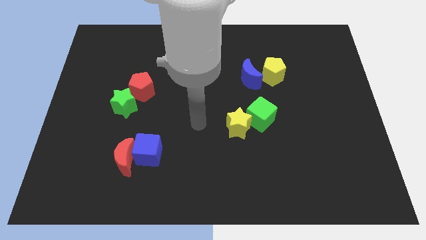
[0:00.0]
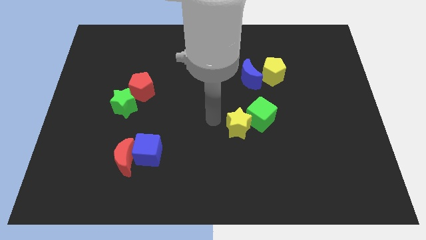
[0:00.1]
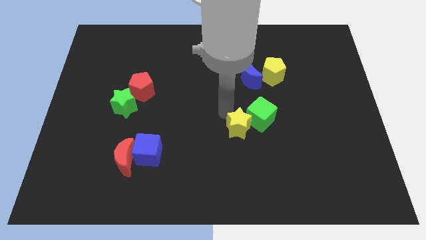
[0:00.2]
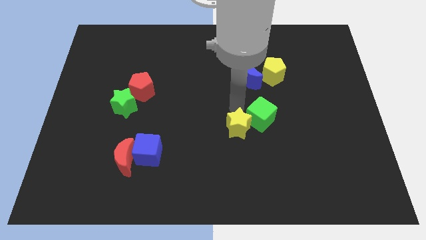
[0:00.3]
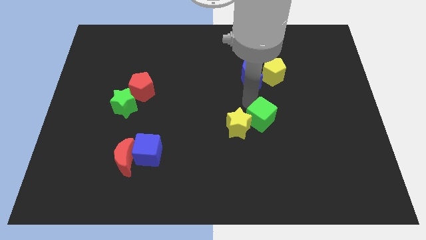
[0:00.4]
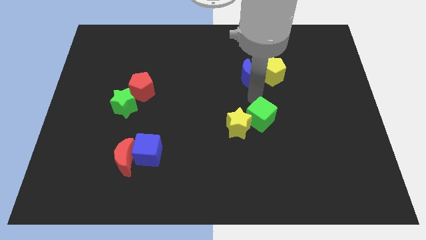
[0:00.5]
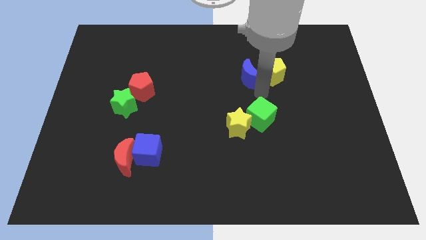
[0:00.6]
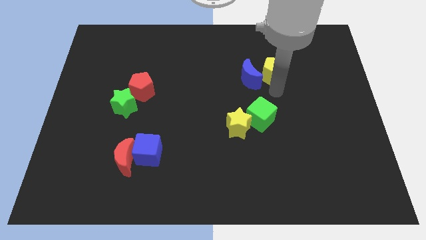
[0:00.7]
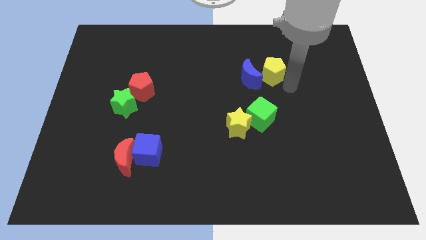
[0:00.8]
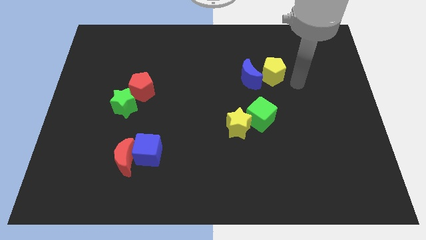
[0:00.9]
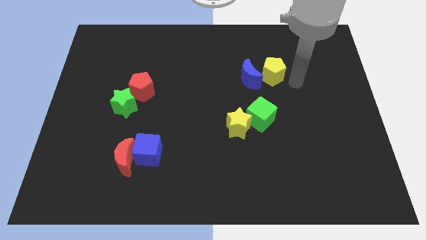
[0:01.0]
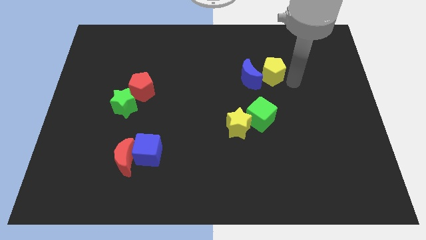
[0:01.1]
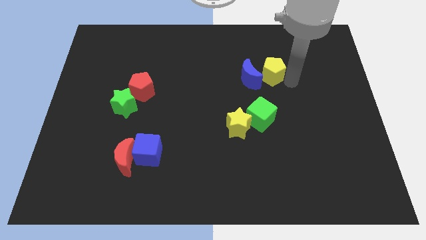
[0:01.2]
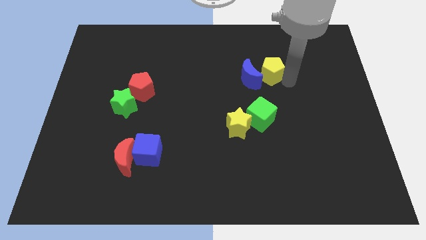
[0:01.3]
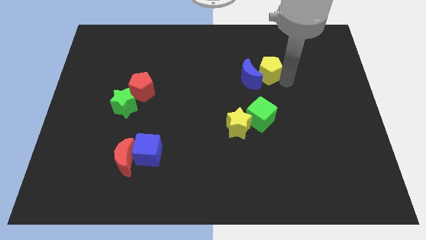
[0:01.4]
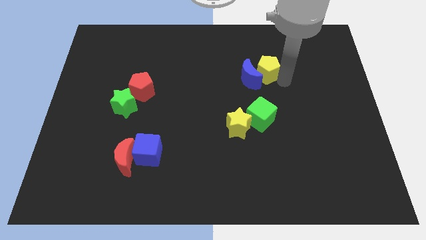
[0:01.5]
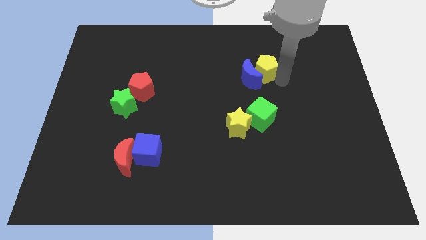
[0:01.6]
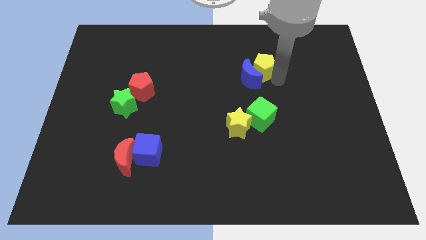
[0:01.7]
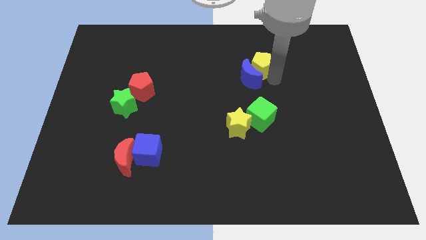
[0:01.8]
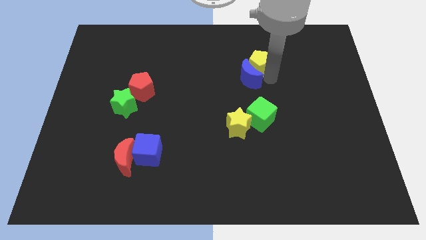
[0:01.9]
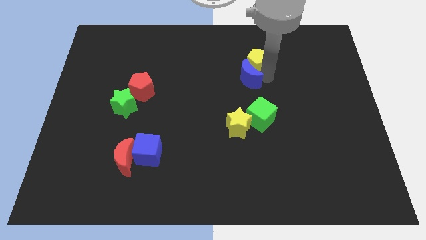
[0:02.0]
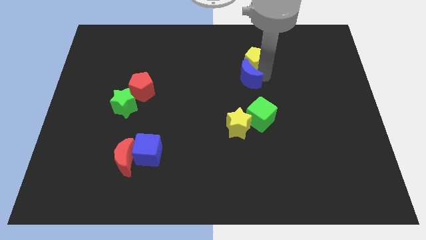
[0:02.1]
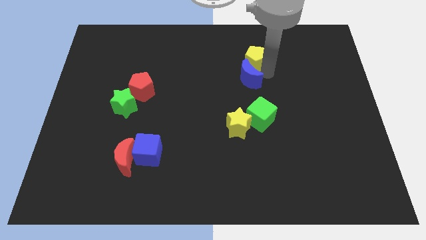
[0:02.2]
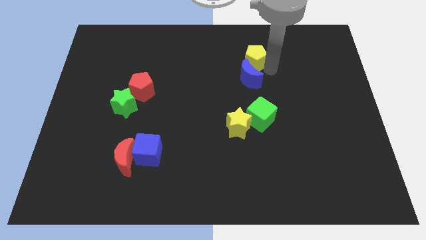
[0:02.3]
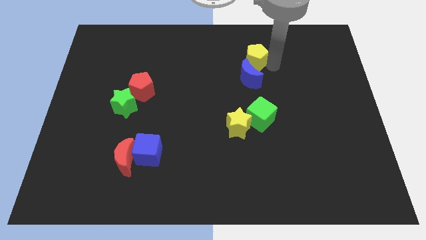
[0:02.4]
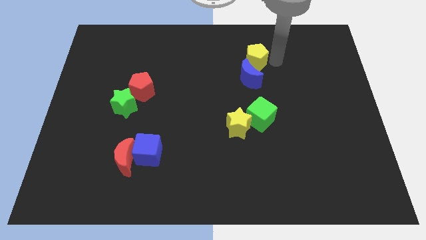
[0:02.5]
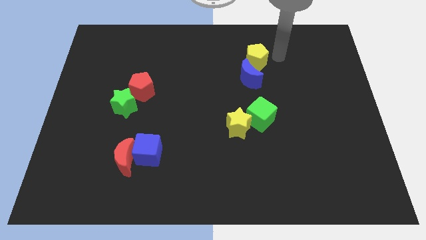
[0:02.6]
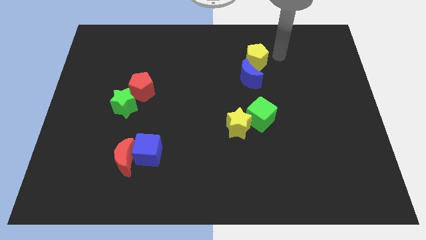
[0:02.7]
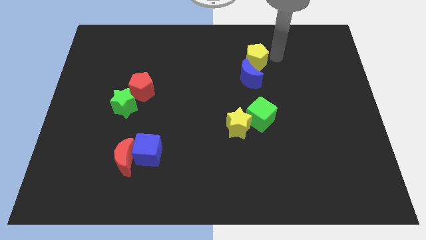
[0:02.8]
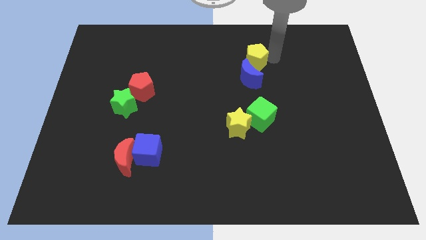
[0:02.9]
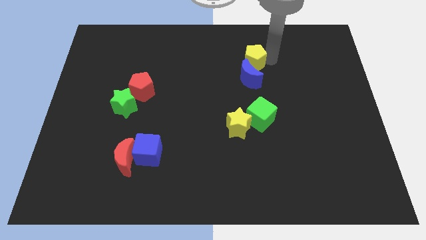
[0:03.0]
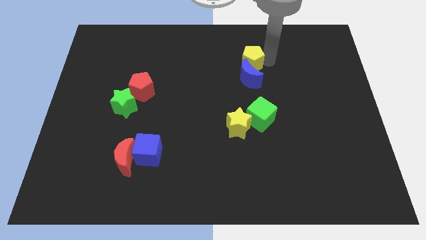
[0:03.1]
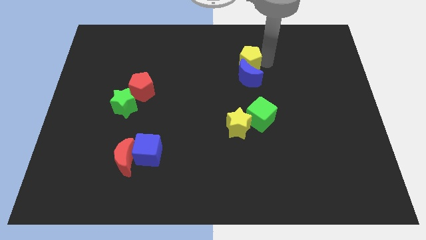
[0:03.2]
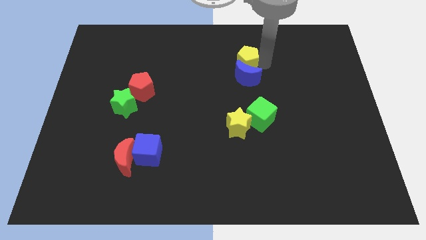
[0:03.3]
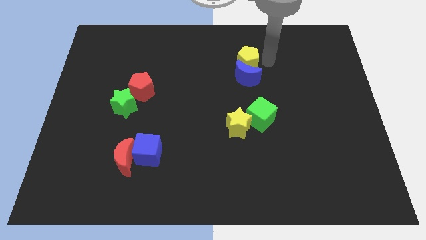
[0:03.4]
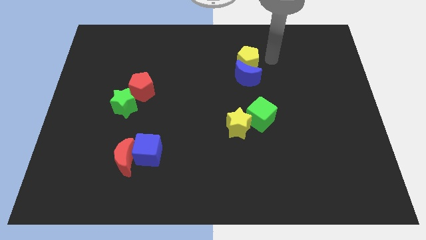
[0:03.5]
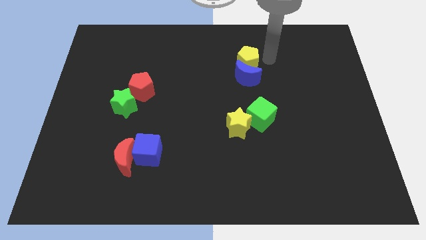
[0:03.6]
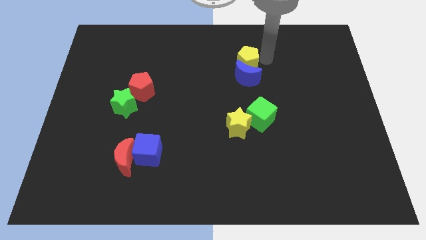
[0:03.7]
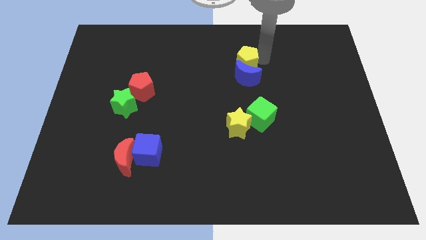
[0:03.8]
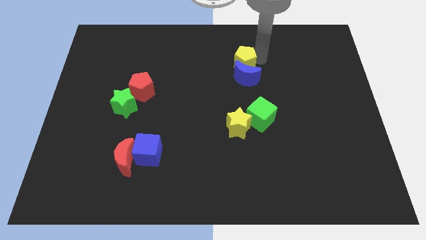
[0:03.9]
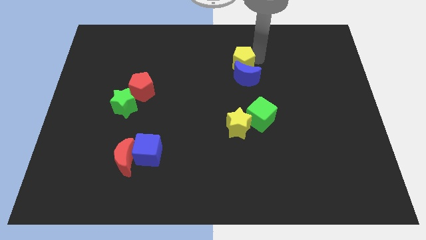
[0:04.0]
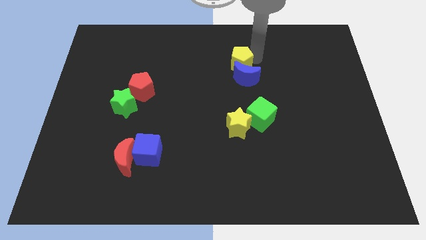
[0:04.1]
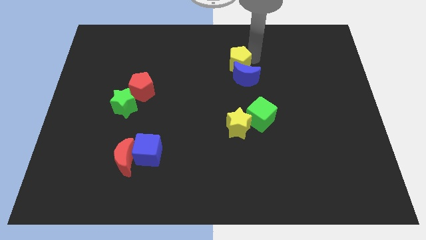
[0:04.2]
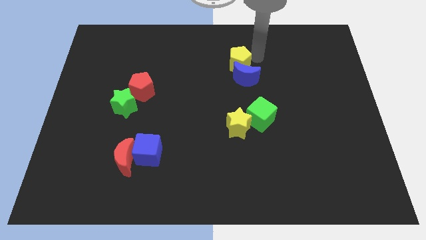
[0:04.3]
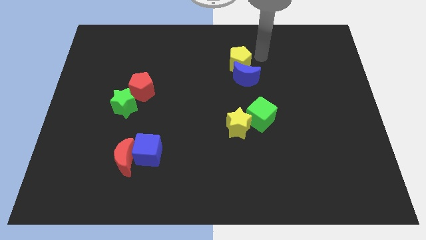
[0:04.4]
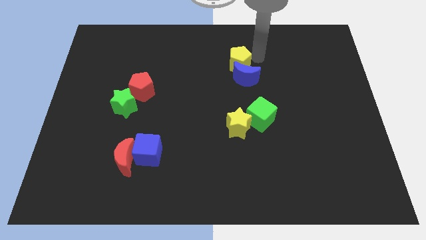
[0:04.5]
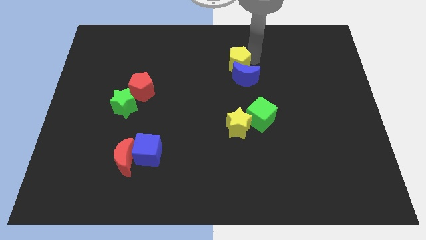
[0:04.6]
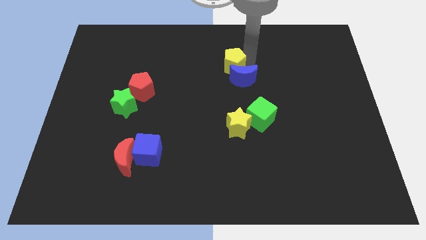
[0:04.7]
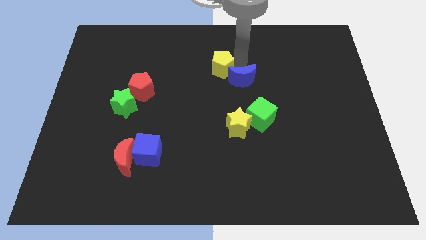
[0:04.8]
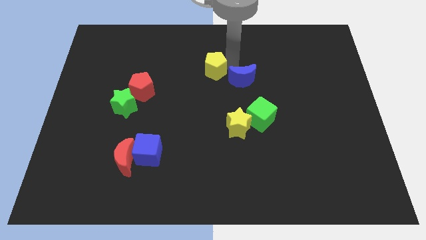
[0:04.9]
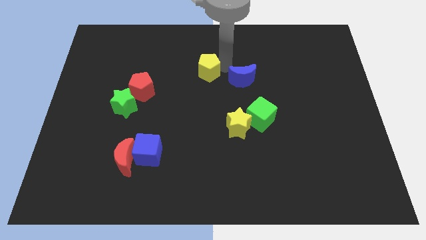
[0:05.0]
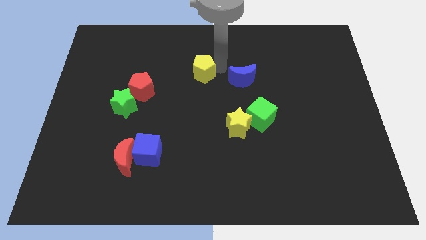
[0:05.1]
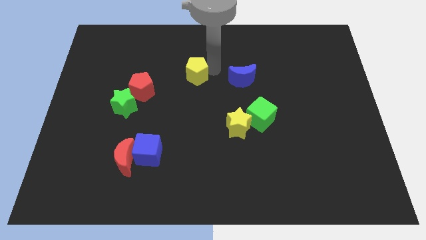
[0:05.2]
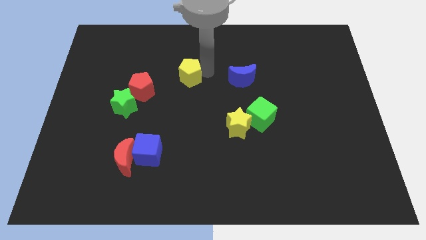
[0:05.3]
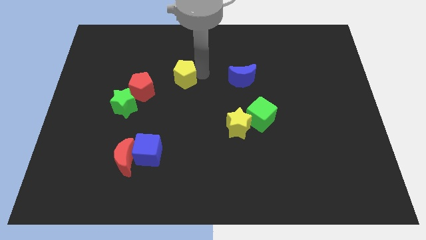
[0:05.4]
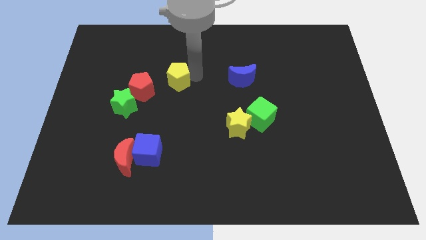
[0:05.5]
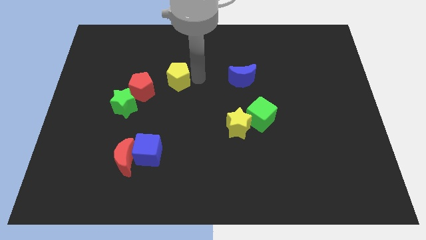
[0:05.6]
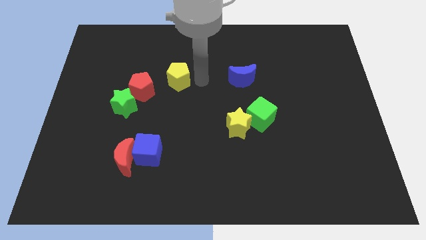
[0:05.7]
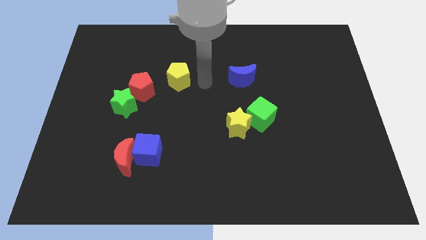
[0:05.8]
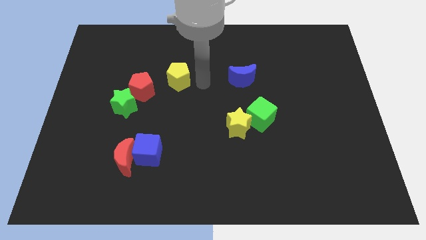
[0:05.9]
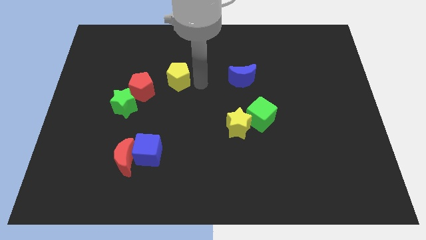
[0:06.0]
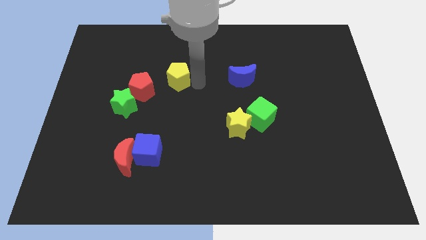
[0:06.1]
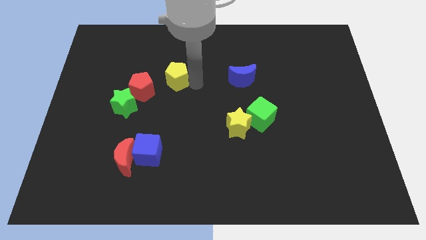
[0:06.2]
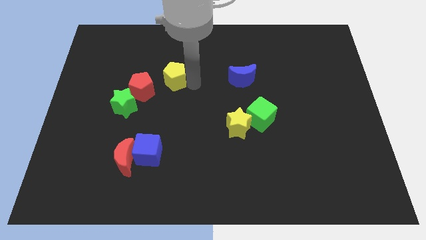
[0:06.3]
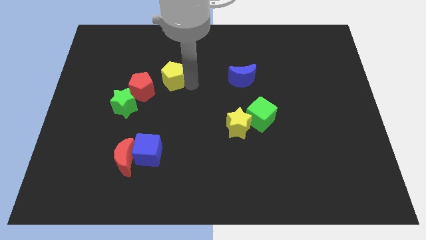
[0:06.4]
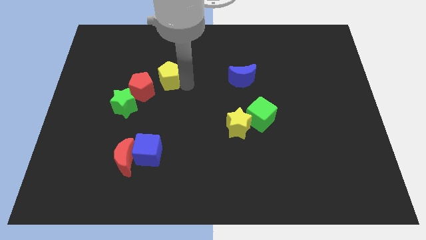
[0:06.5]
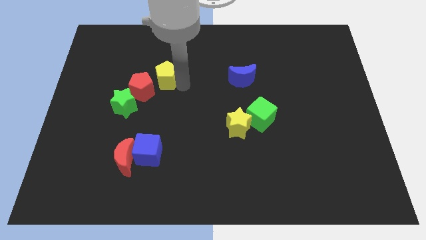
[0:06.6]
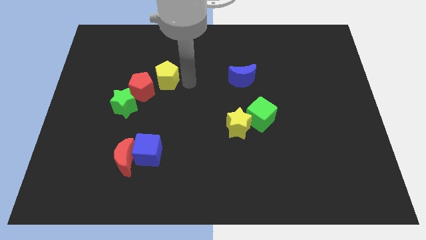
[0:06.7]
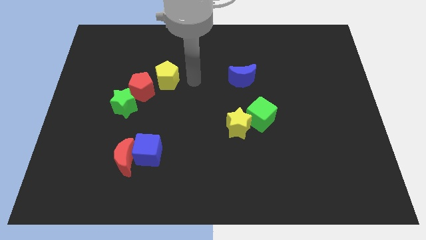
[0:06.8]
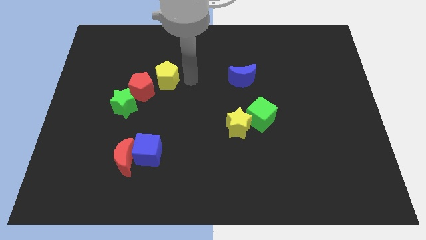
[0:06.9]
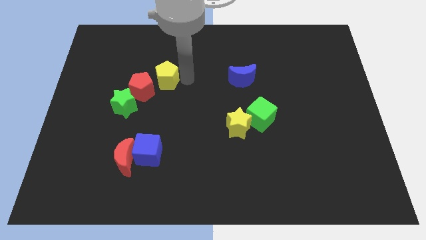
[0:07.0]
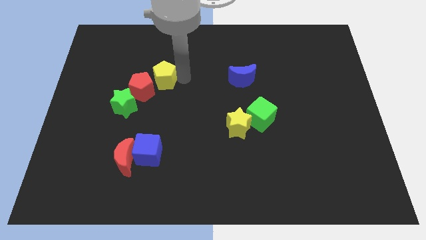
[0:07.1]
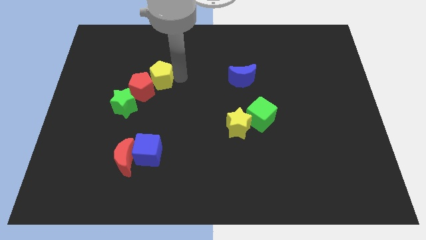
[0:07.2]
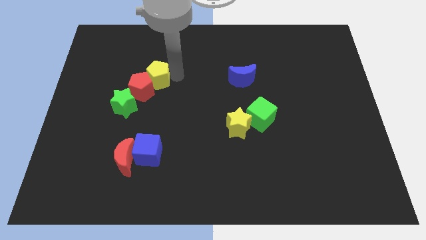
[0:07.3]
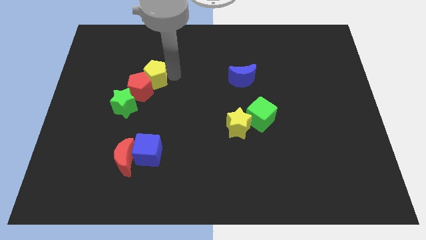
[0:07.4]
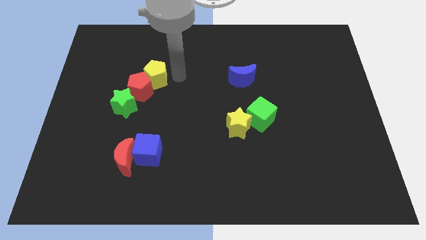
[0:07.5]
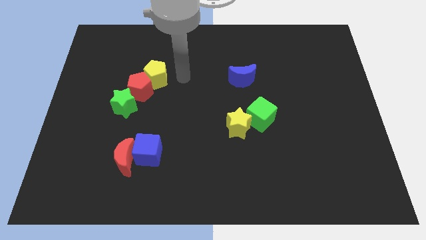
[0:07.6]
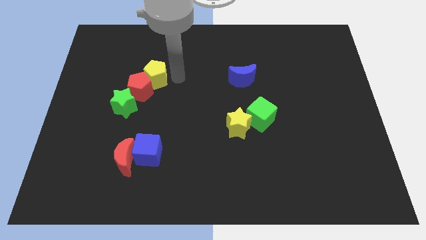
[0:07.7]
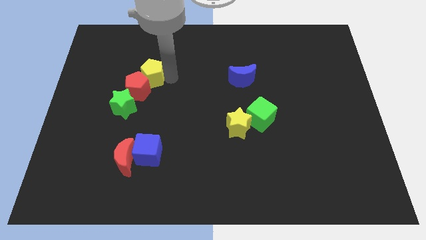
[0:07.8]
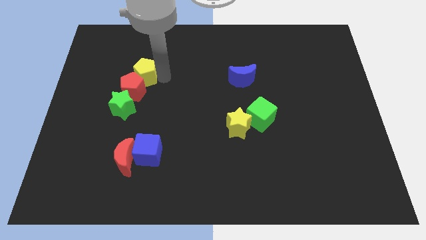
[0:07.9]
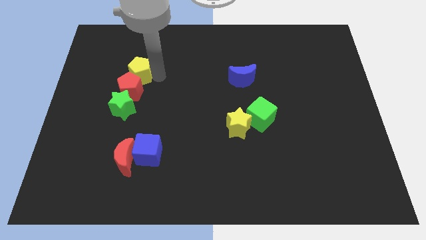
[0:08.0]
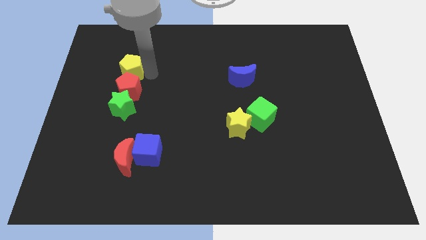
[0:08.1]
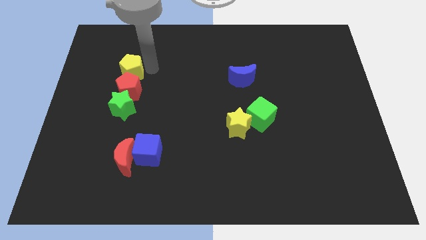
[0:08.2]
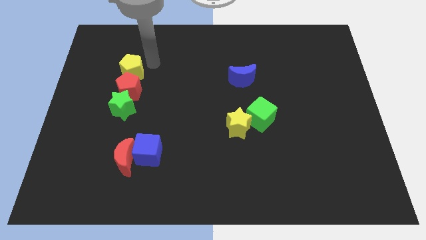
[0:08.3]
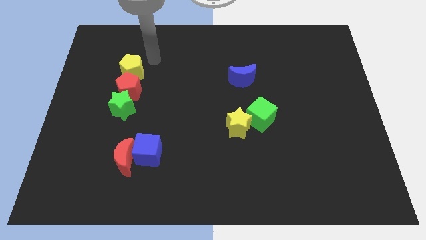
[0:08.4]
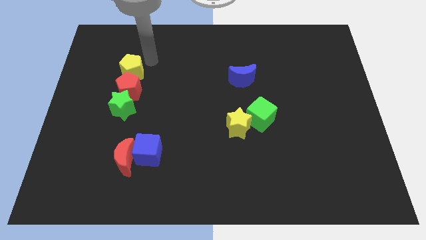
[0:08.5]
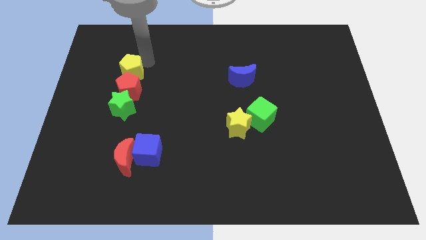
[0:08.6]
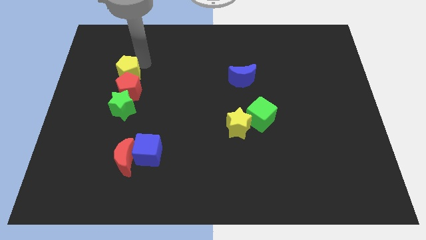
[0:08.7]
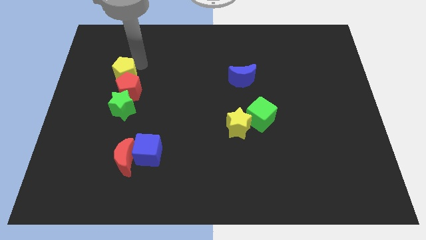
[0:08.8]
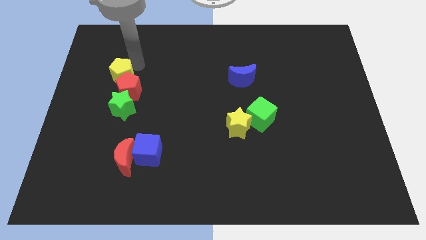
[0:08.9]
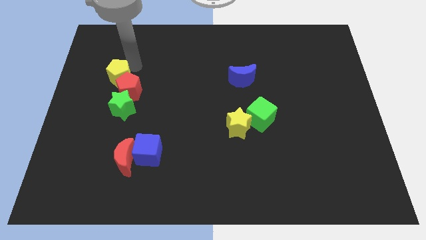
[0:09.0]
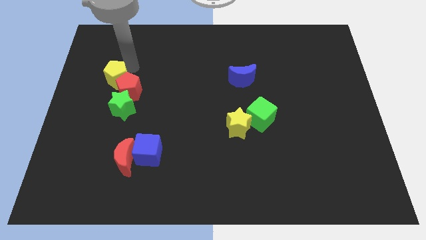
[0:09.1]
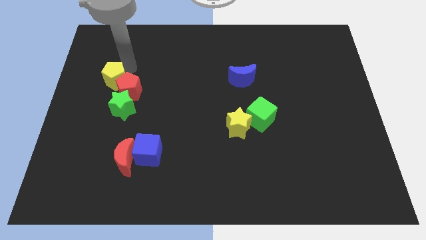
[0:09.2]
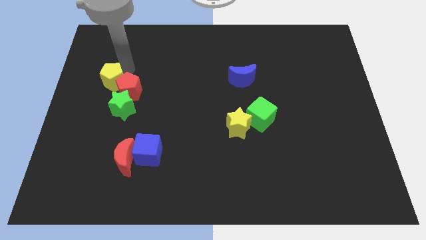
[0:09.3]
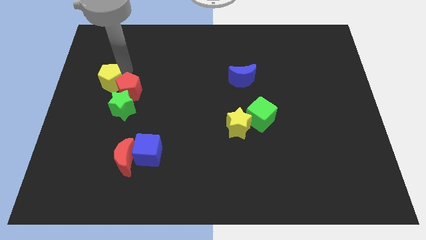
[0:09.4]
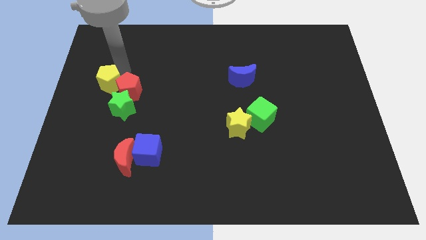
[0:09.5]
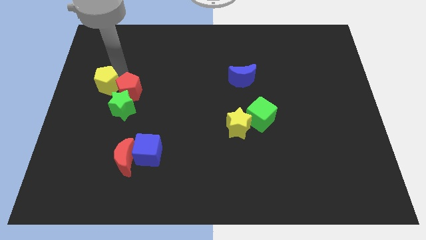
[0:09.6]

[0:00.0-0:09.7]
put the yellow pentagon to the center left
